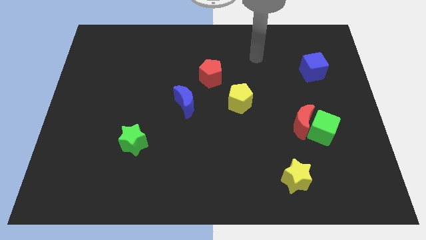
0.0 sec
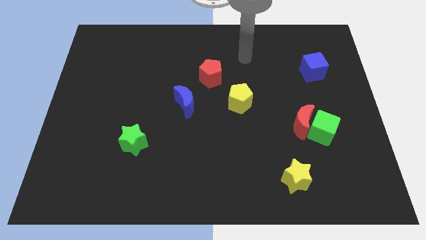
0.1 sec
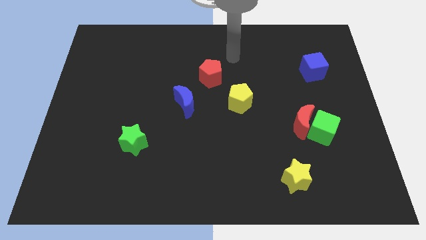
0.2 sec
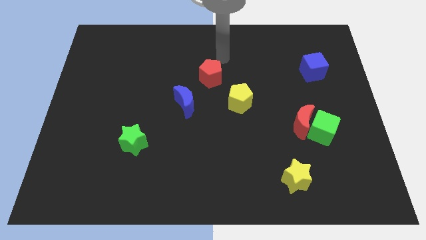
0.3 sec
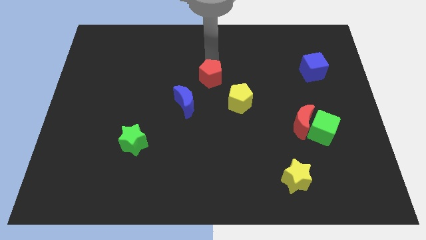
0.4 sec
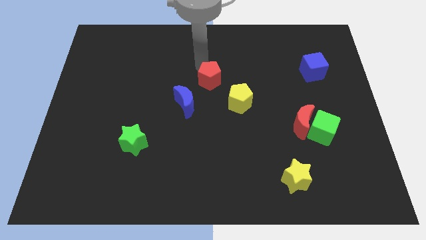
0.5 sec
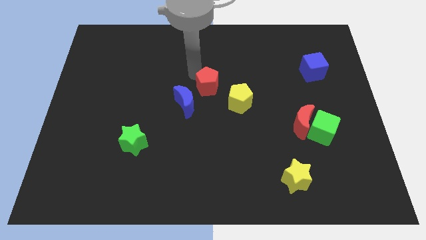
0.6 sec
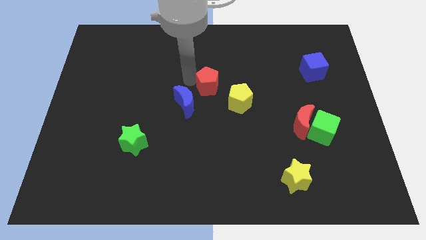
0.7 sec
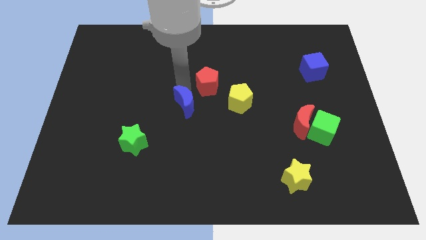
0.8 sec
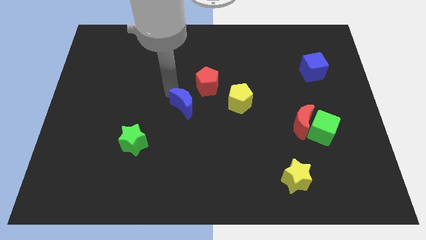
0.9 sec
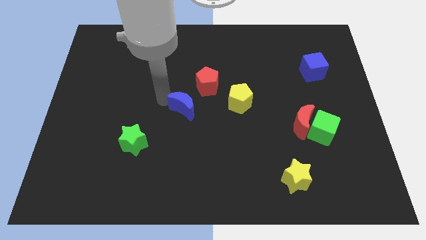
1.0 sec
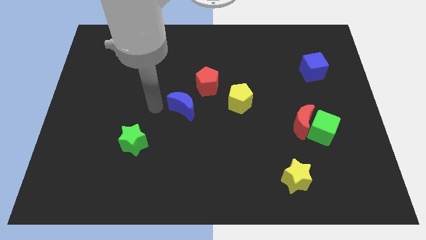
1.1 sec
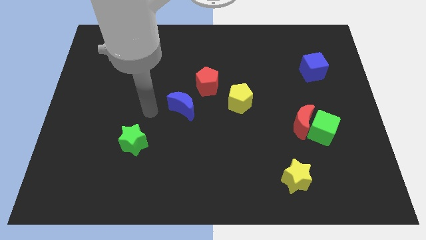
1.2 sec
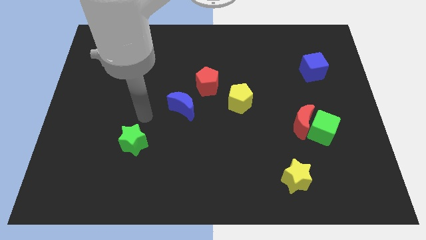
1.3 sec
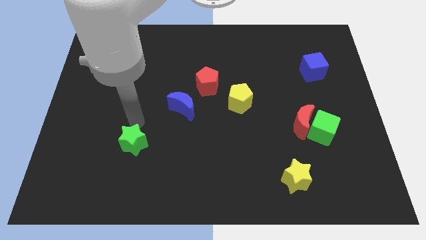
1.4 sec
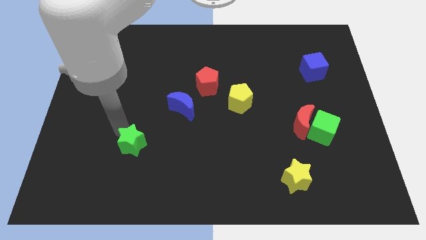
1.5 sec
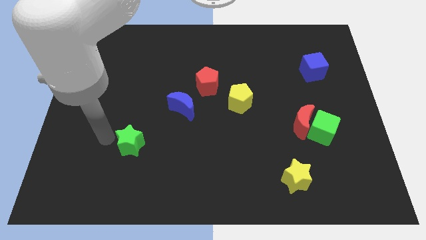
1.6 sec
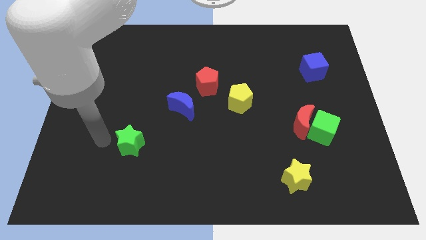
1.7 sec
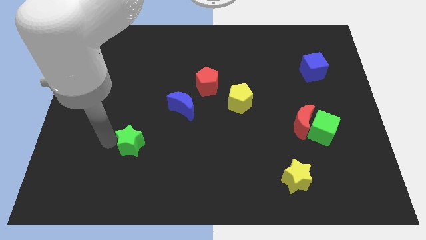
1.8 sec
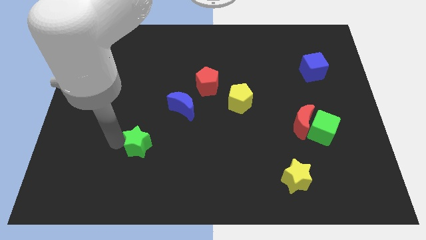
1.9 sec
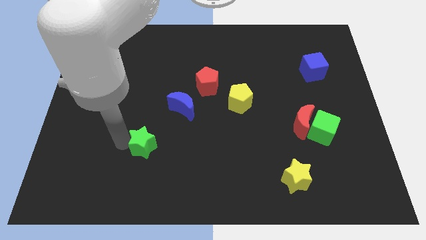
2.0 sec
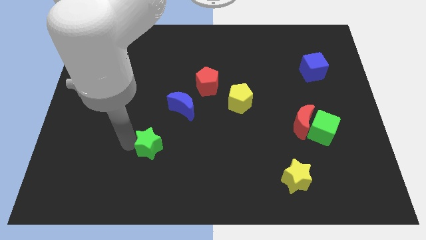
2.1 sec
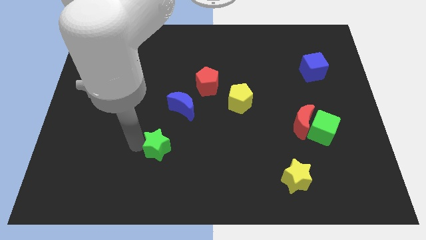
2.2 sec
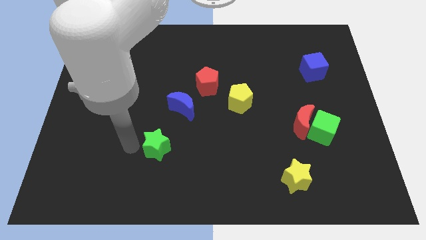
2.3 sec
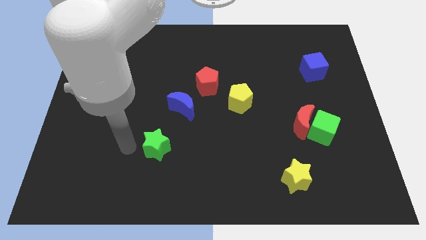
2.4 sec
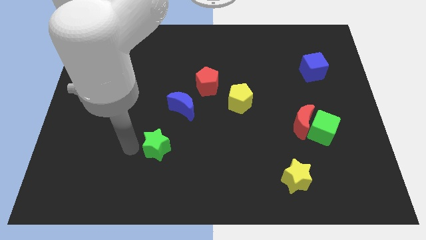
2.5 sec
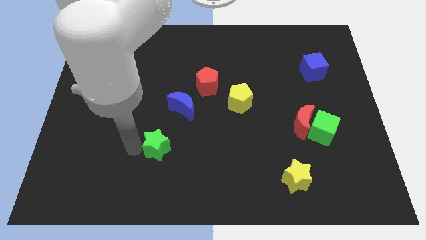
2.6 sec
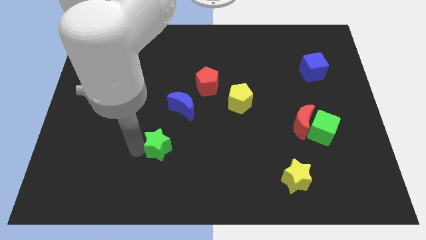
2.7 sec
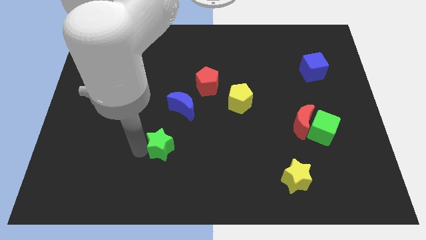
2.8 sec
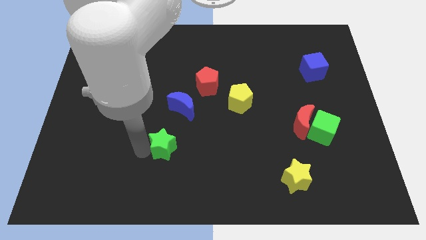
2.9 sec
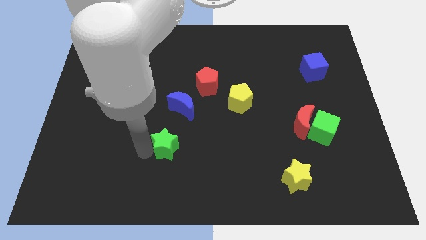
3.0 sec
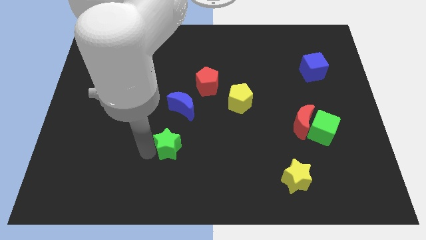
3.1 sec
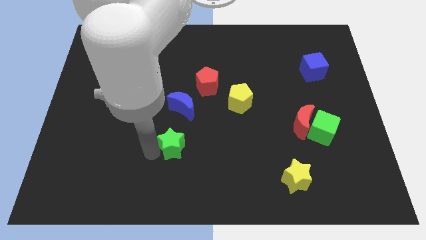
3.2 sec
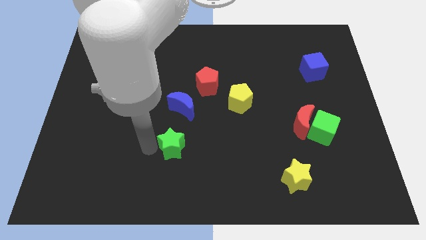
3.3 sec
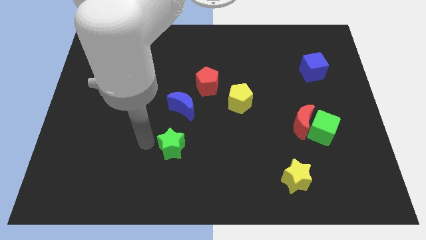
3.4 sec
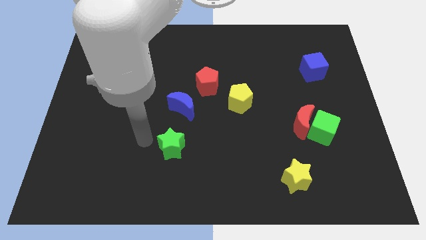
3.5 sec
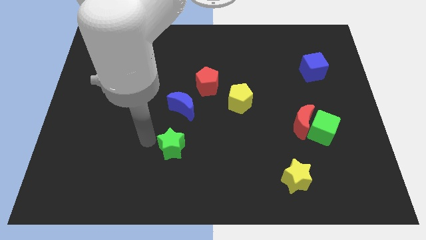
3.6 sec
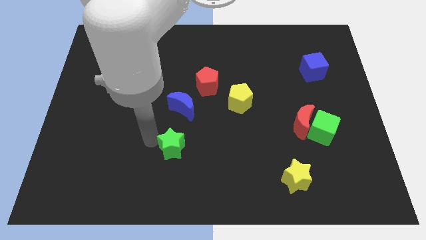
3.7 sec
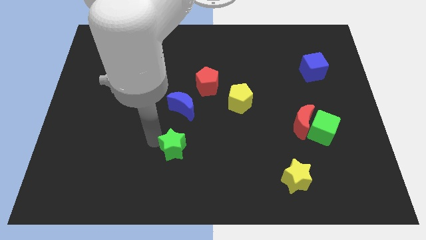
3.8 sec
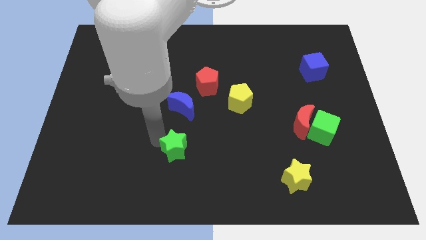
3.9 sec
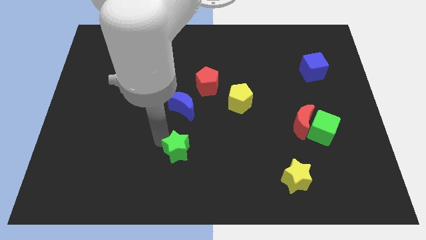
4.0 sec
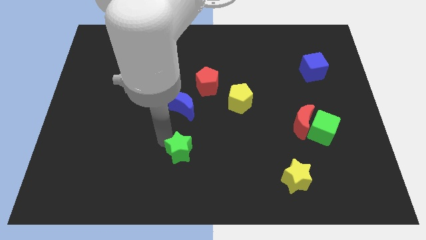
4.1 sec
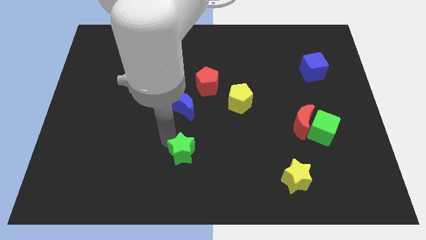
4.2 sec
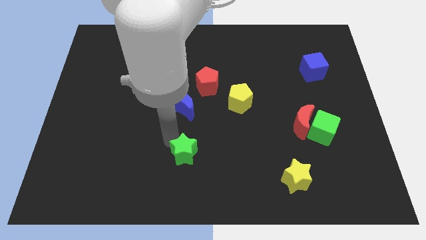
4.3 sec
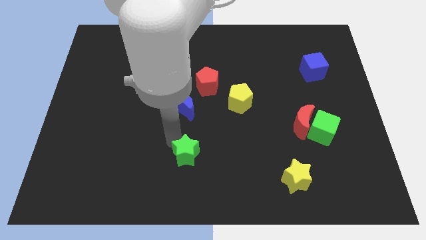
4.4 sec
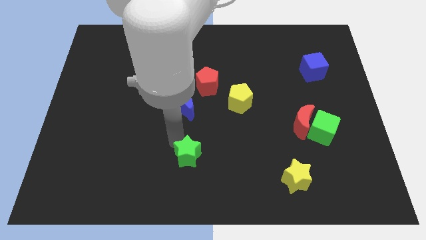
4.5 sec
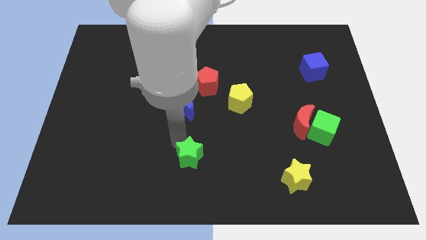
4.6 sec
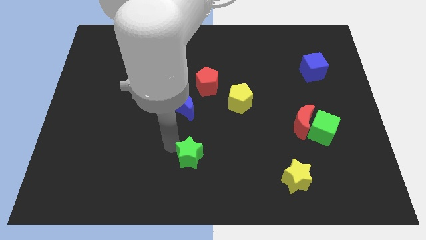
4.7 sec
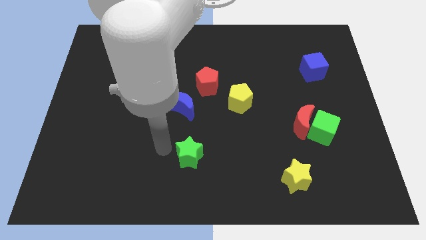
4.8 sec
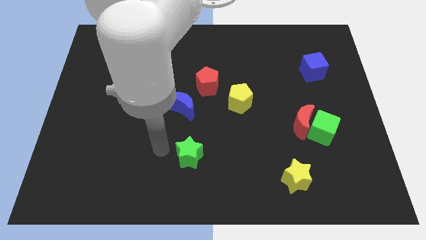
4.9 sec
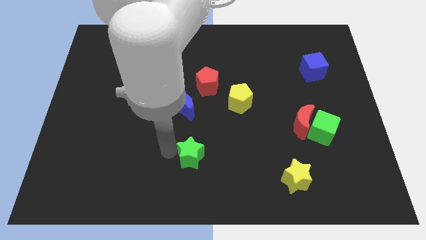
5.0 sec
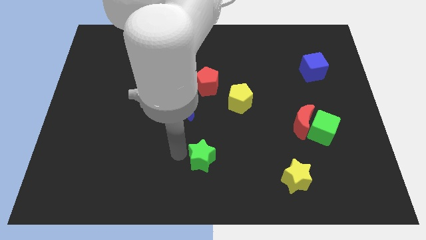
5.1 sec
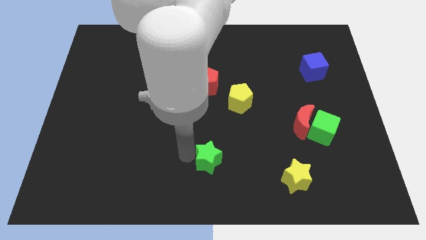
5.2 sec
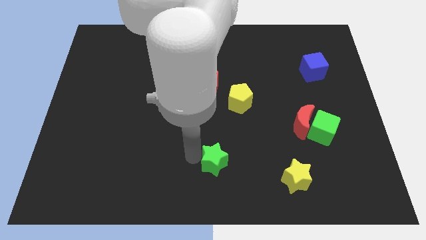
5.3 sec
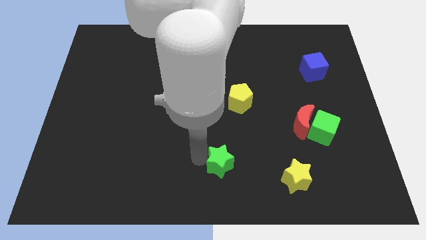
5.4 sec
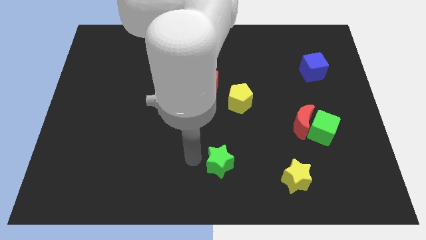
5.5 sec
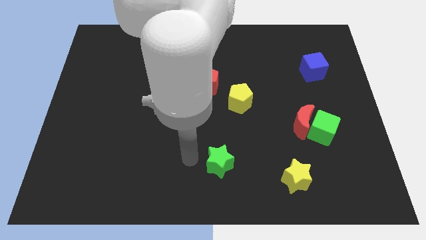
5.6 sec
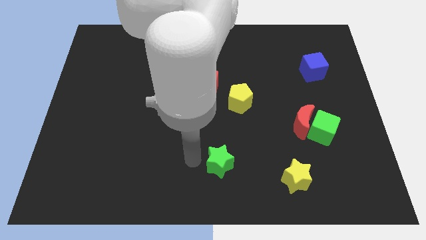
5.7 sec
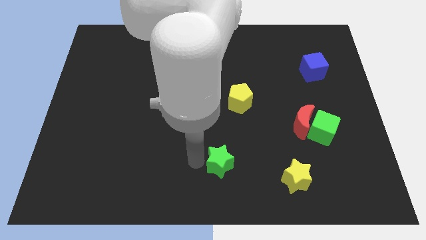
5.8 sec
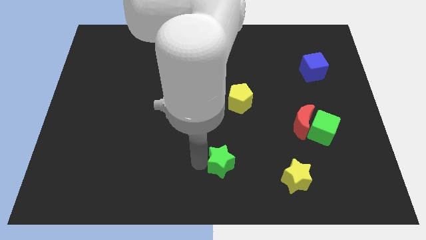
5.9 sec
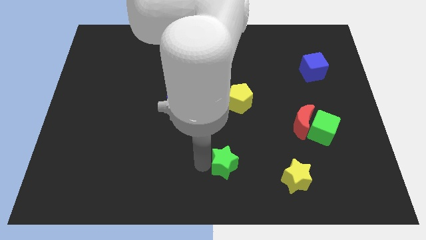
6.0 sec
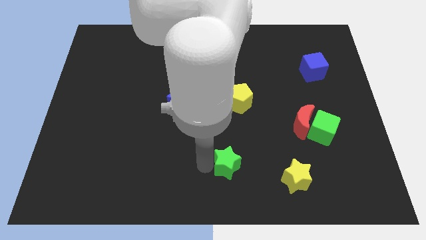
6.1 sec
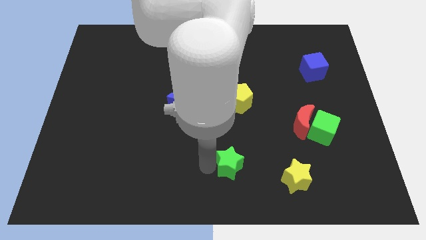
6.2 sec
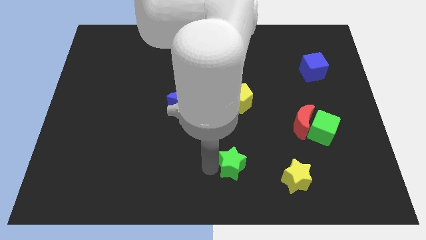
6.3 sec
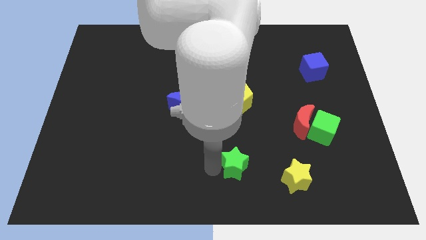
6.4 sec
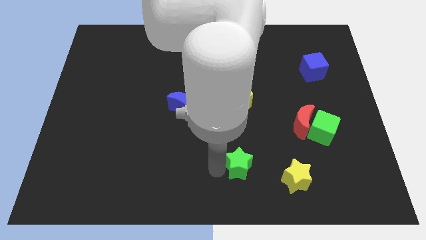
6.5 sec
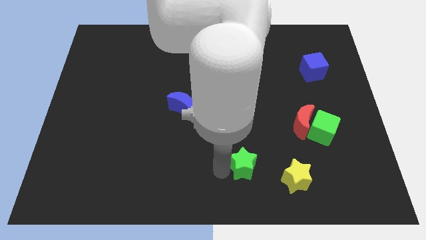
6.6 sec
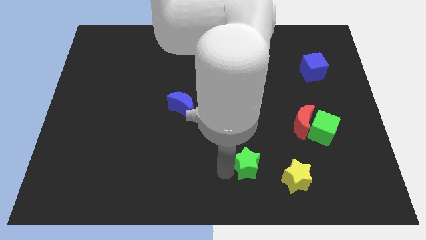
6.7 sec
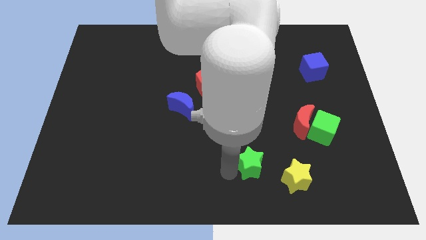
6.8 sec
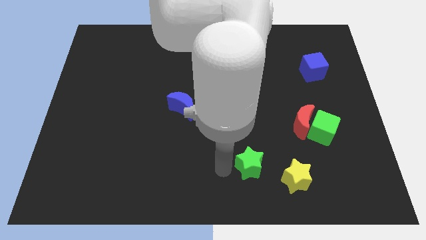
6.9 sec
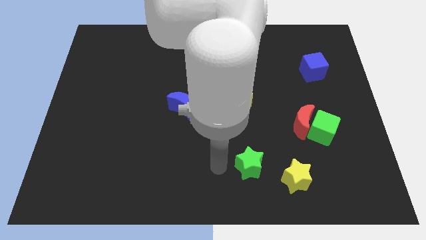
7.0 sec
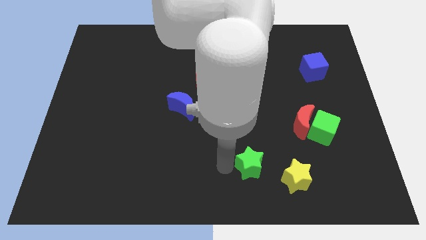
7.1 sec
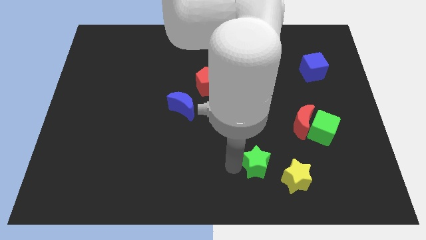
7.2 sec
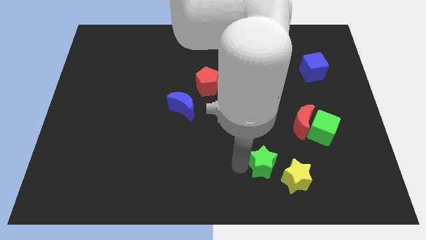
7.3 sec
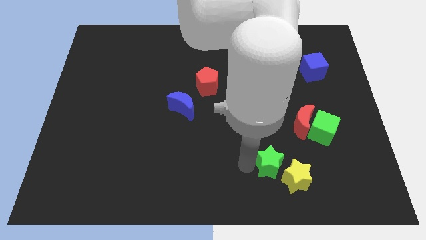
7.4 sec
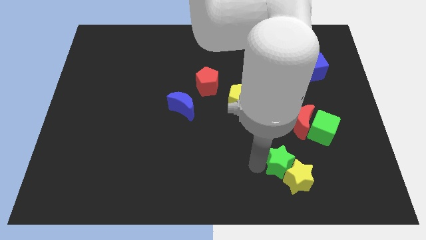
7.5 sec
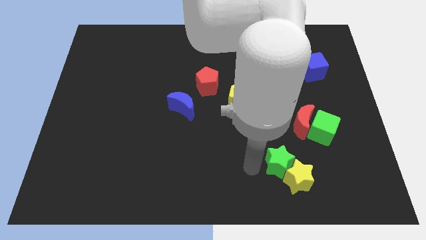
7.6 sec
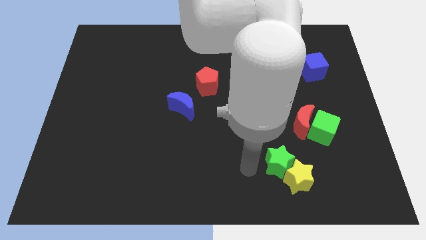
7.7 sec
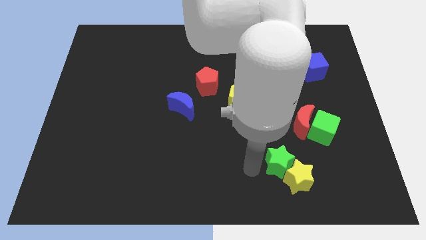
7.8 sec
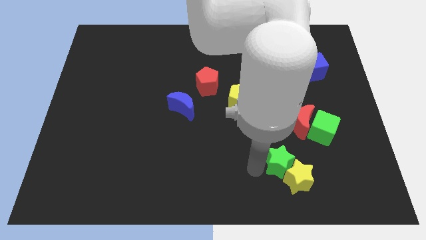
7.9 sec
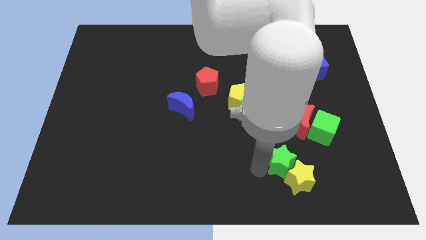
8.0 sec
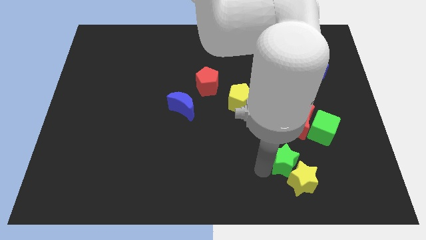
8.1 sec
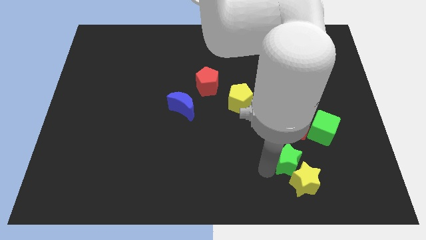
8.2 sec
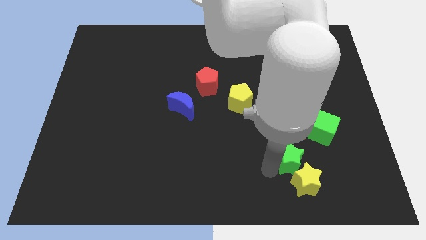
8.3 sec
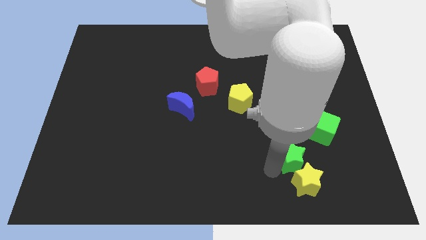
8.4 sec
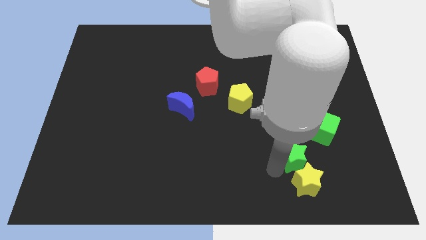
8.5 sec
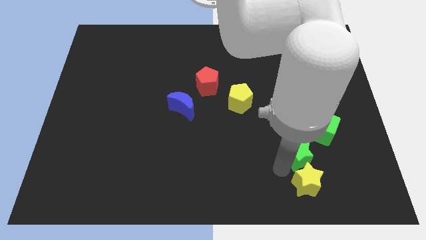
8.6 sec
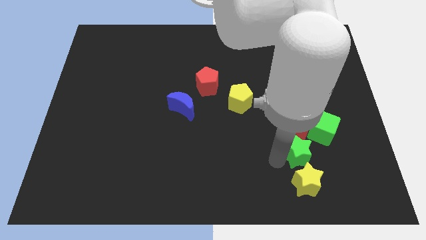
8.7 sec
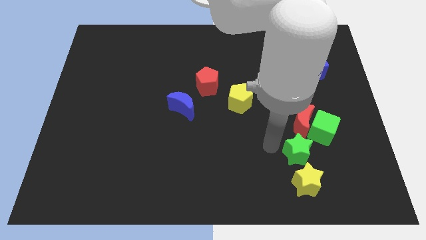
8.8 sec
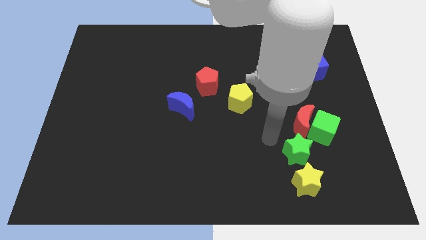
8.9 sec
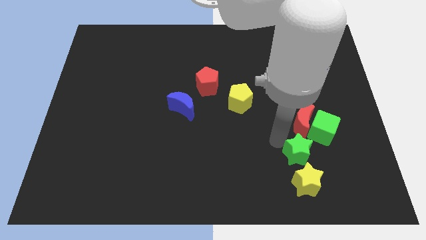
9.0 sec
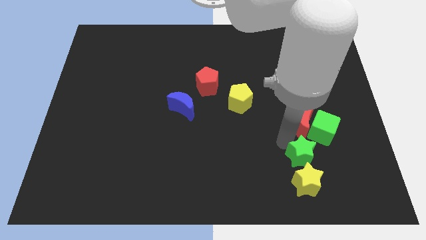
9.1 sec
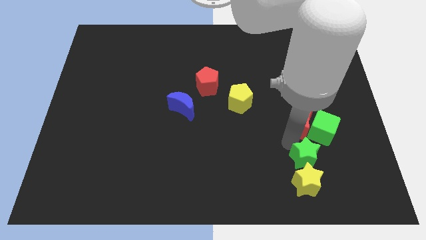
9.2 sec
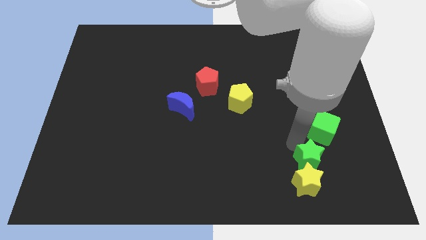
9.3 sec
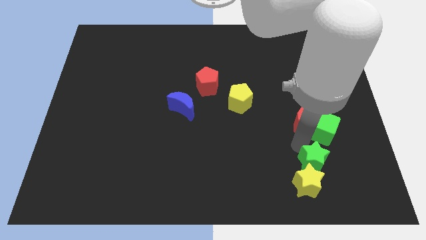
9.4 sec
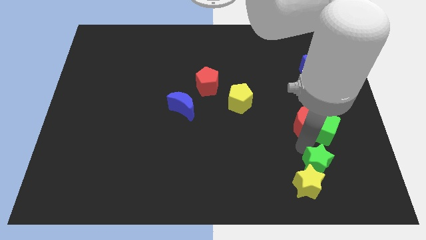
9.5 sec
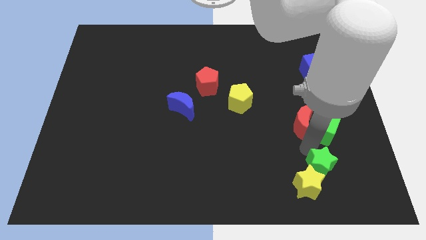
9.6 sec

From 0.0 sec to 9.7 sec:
put the green star just right of the yellow star
